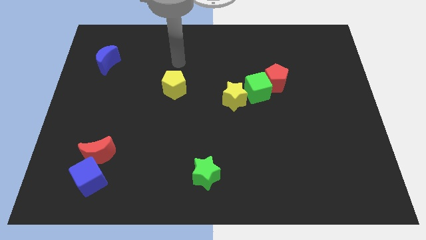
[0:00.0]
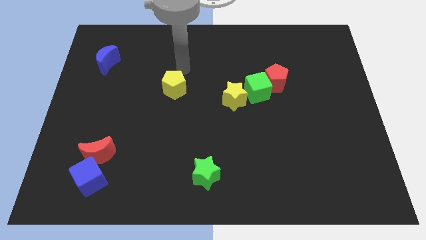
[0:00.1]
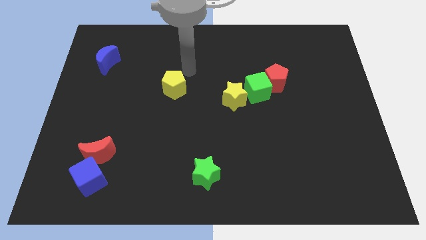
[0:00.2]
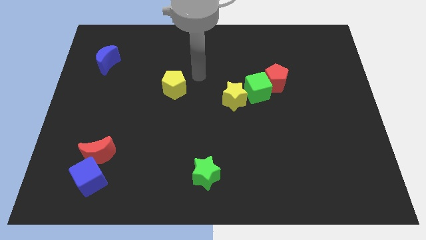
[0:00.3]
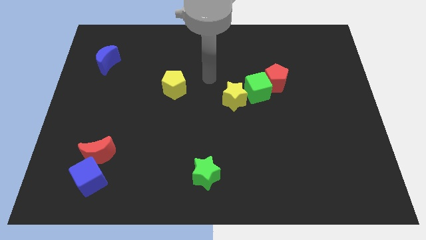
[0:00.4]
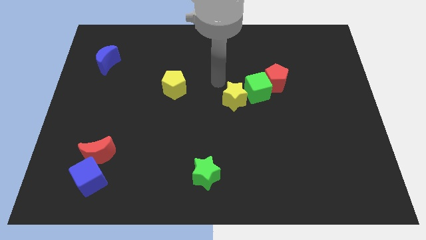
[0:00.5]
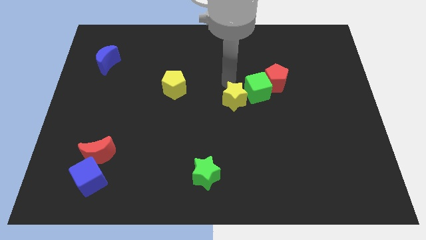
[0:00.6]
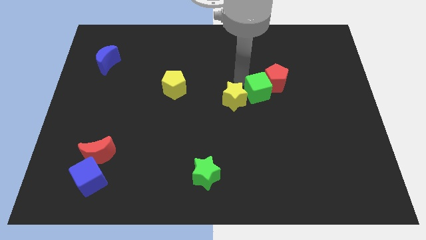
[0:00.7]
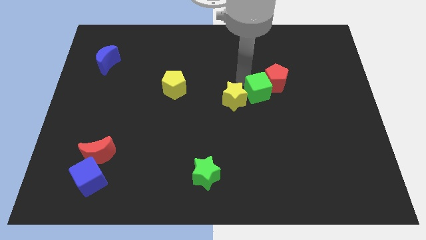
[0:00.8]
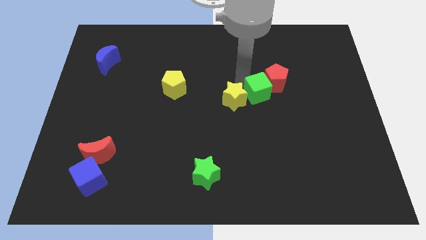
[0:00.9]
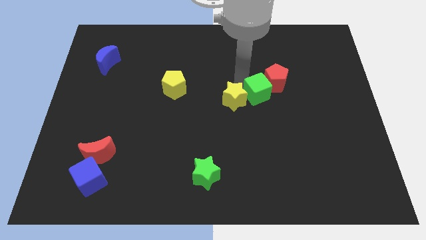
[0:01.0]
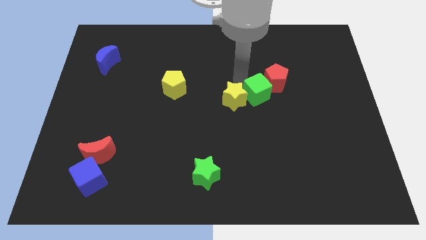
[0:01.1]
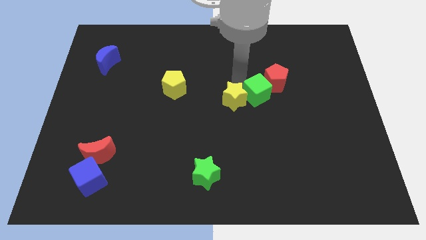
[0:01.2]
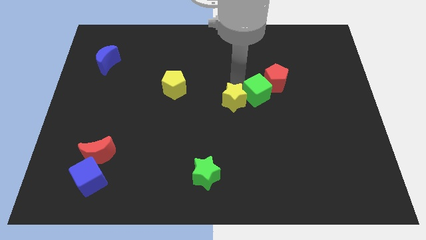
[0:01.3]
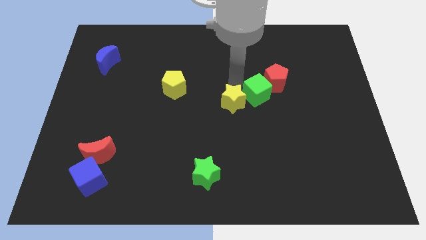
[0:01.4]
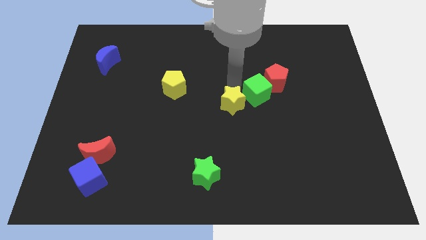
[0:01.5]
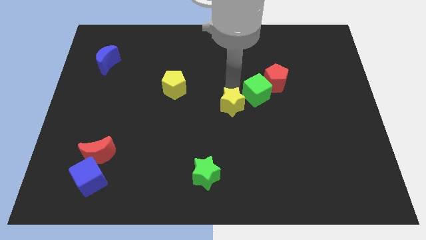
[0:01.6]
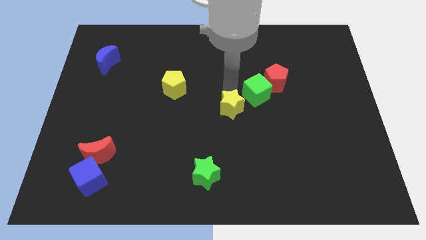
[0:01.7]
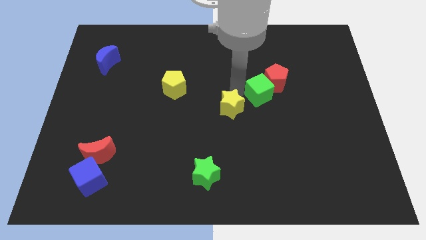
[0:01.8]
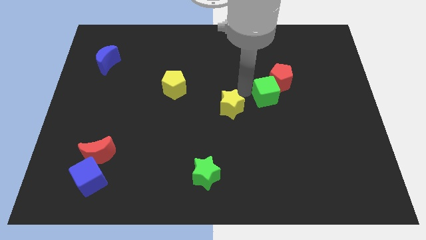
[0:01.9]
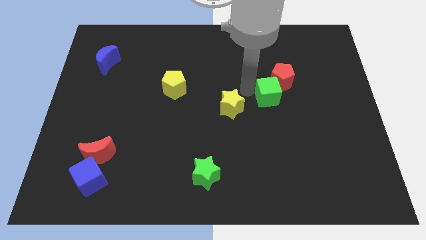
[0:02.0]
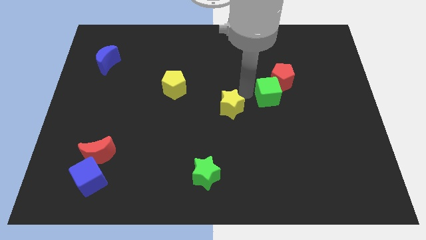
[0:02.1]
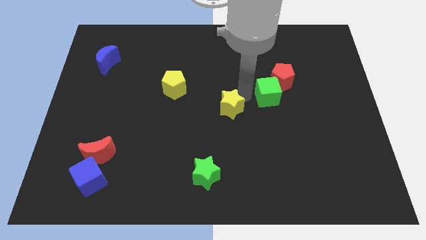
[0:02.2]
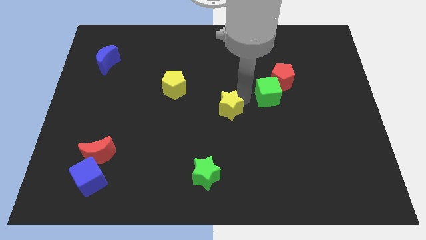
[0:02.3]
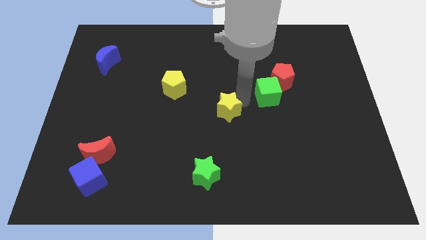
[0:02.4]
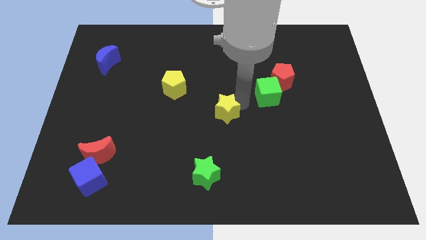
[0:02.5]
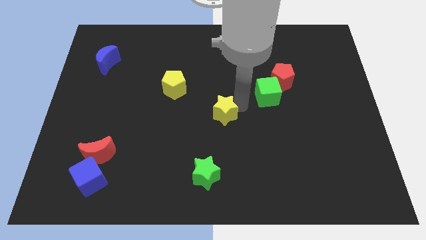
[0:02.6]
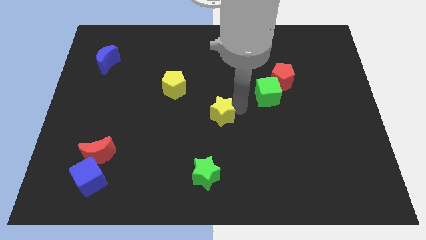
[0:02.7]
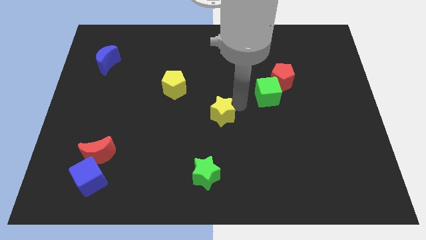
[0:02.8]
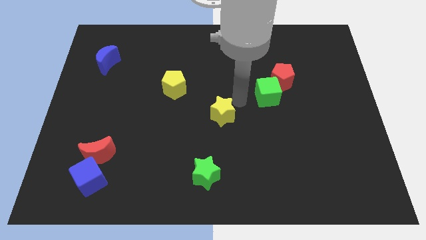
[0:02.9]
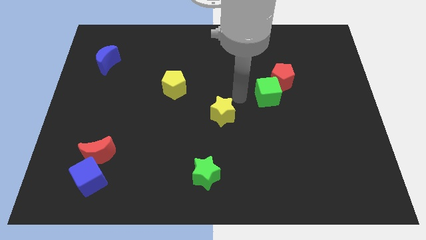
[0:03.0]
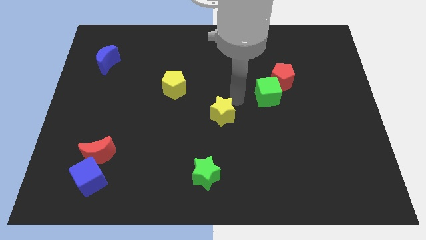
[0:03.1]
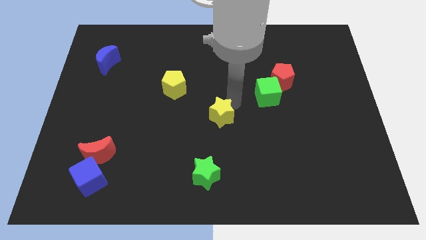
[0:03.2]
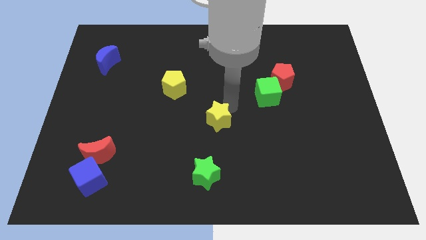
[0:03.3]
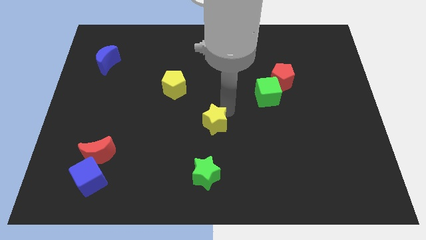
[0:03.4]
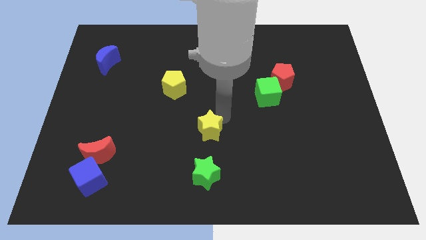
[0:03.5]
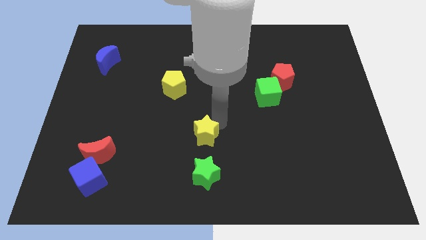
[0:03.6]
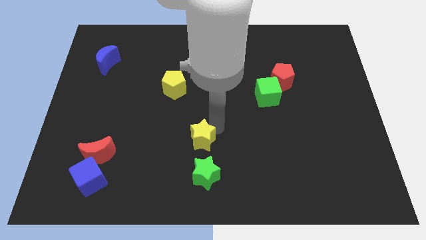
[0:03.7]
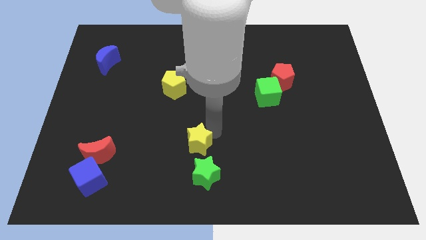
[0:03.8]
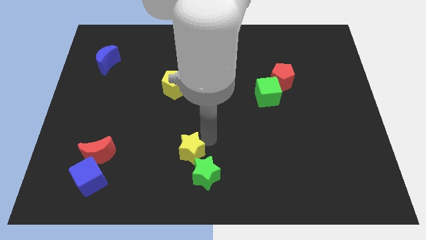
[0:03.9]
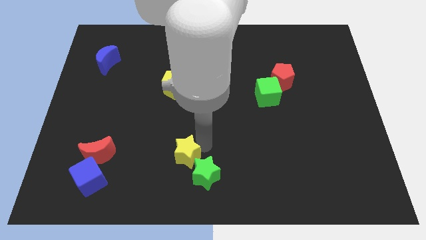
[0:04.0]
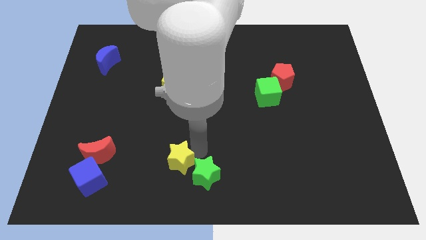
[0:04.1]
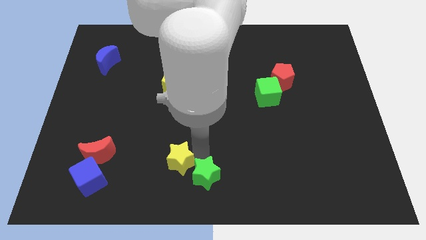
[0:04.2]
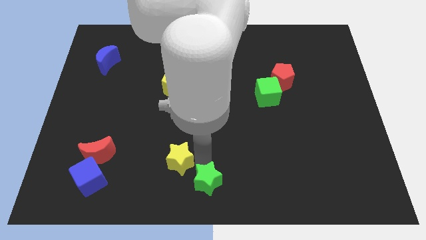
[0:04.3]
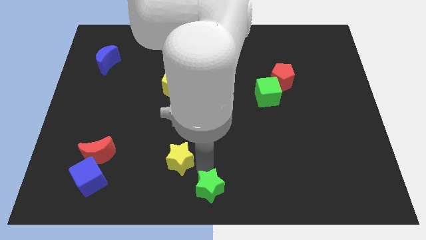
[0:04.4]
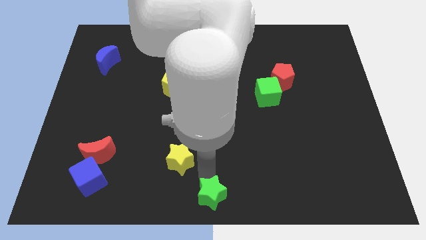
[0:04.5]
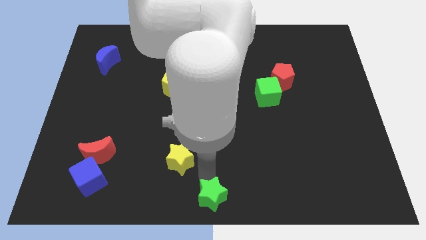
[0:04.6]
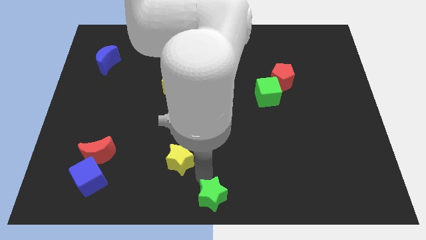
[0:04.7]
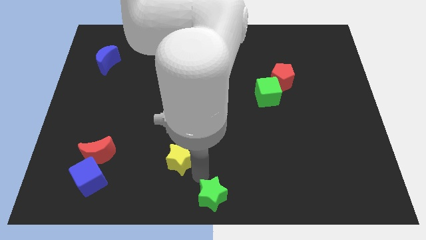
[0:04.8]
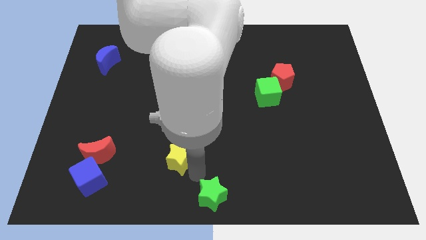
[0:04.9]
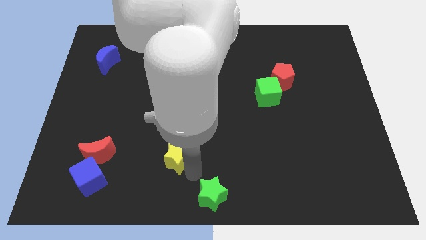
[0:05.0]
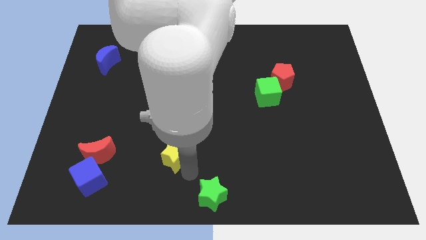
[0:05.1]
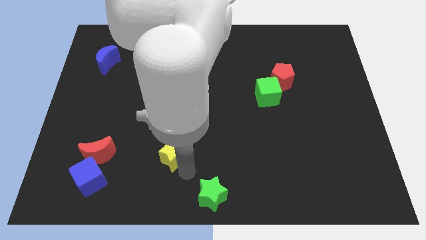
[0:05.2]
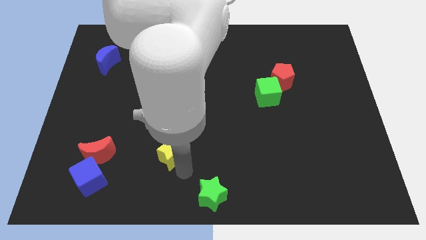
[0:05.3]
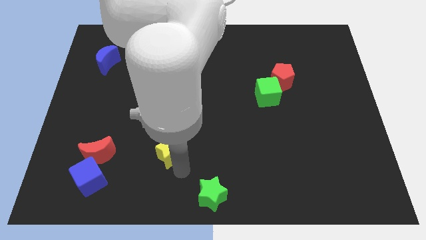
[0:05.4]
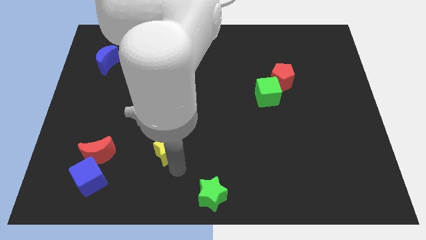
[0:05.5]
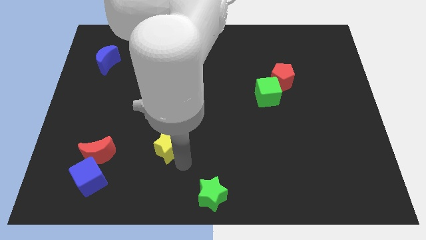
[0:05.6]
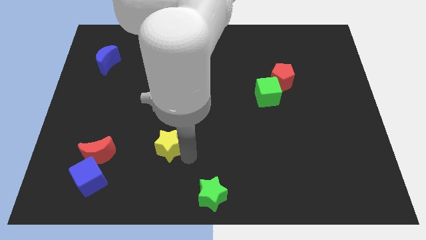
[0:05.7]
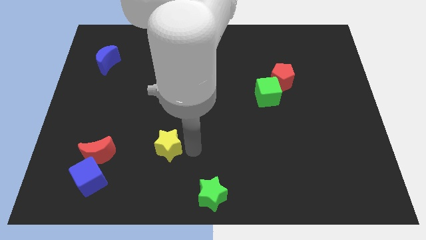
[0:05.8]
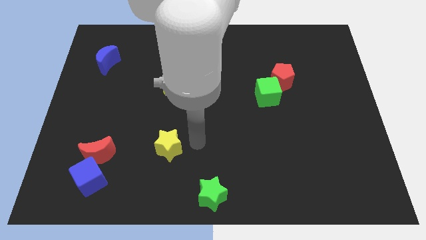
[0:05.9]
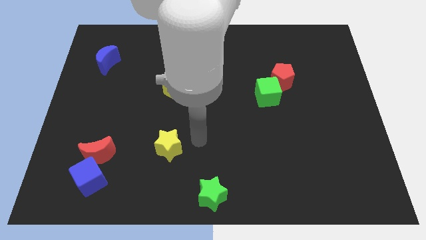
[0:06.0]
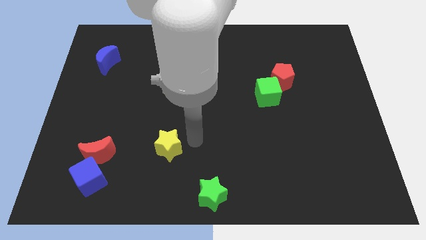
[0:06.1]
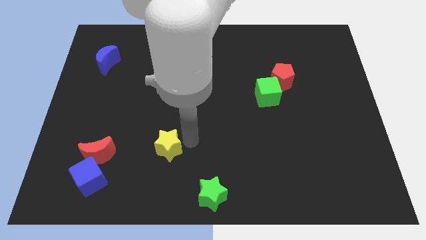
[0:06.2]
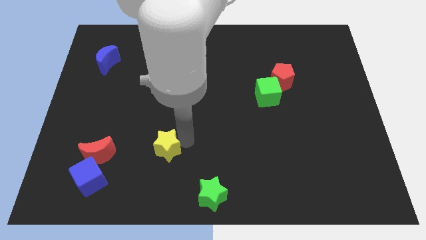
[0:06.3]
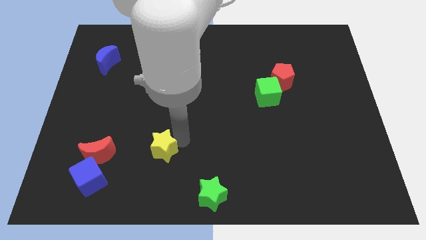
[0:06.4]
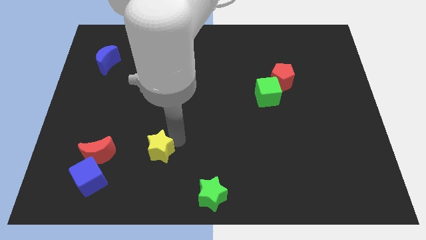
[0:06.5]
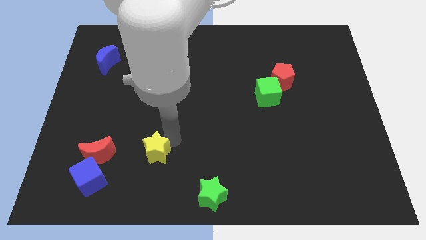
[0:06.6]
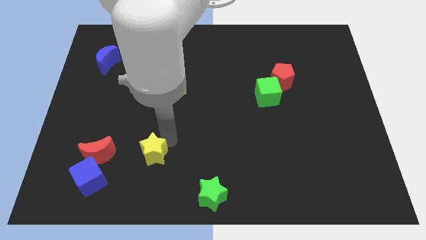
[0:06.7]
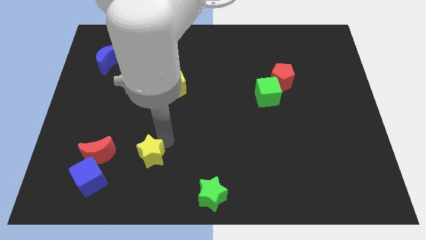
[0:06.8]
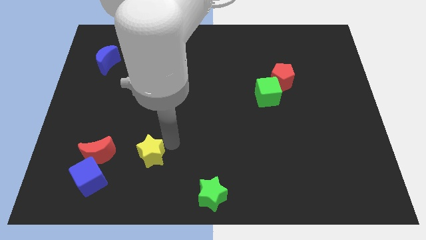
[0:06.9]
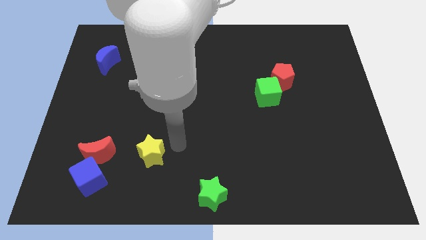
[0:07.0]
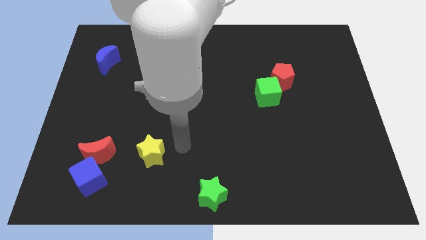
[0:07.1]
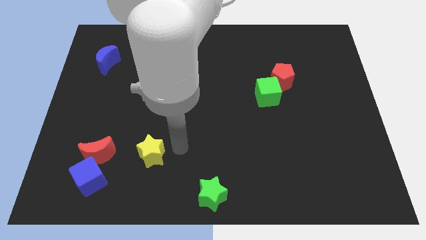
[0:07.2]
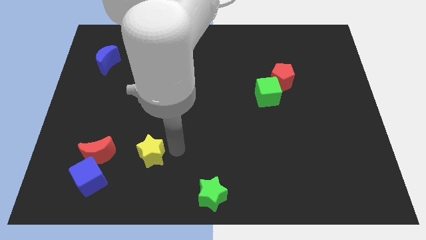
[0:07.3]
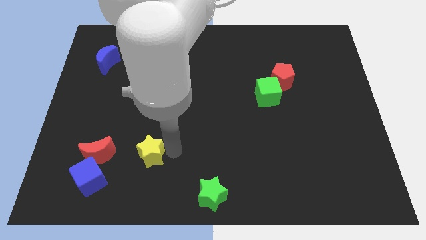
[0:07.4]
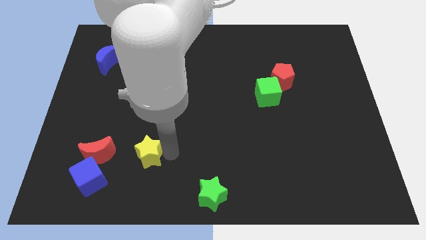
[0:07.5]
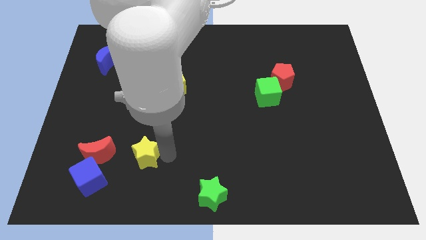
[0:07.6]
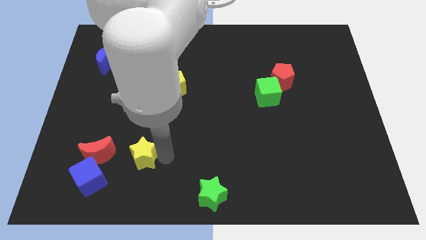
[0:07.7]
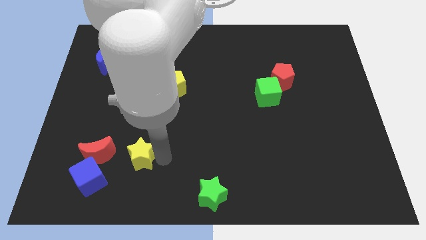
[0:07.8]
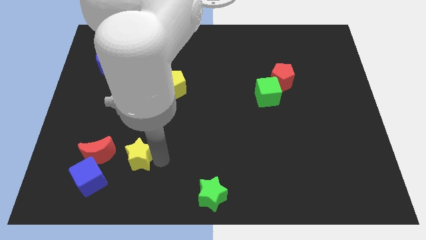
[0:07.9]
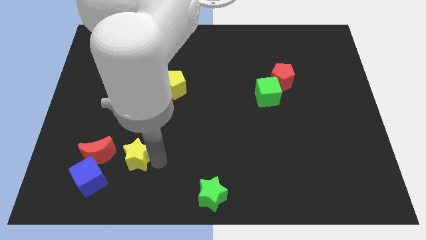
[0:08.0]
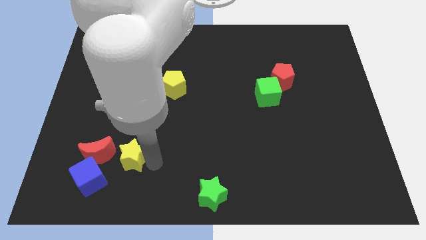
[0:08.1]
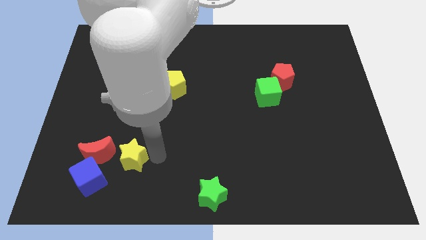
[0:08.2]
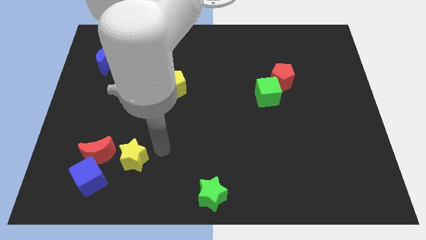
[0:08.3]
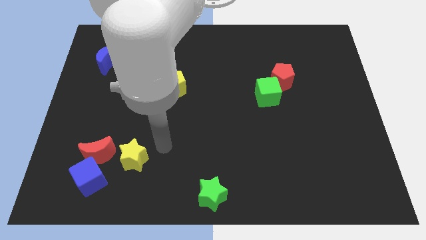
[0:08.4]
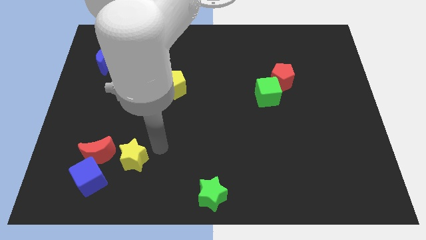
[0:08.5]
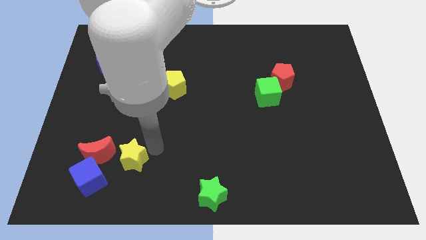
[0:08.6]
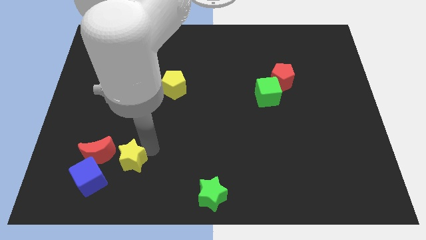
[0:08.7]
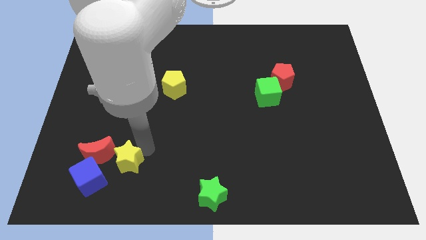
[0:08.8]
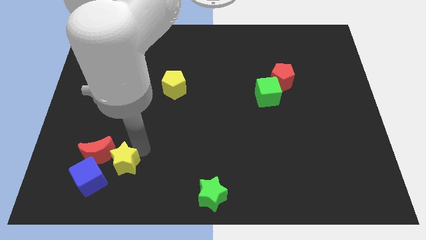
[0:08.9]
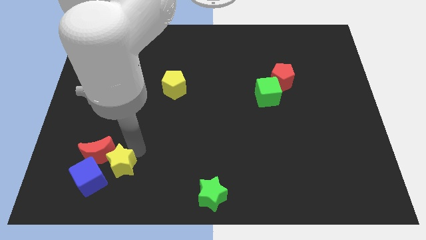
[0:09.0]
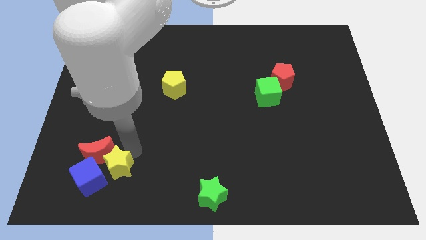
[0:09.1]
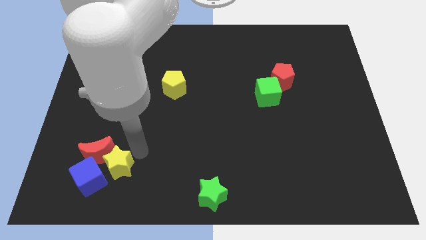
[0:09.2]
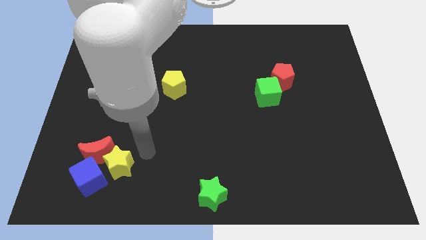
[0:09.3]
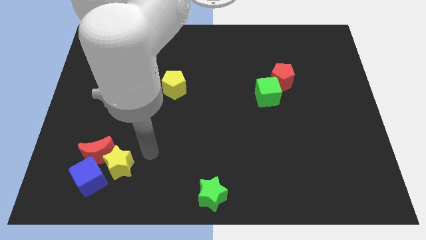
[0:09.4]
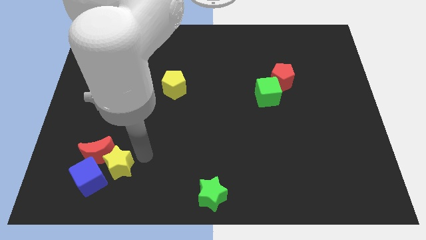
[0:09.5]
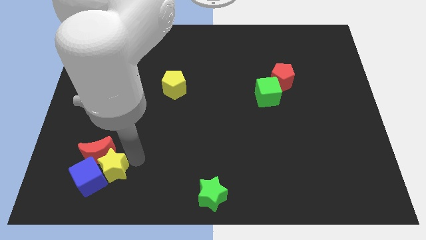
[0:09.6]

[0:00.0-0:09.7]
move the yellow star close to the blue cube
